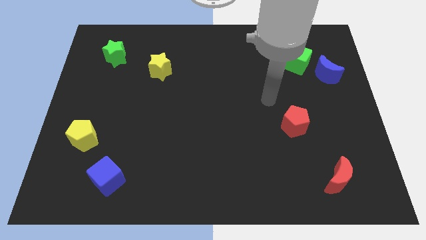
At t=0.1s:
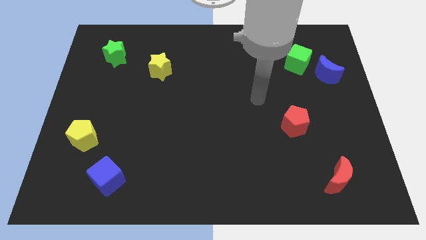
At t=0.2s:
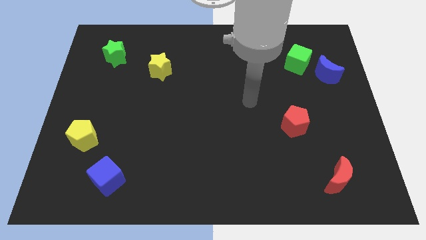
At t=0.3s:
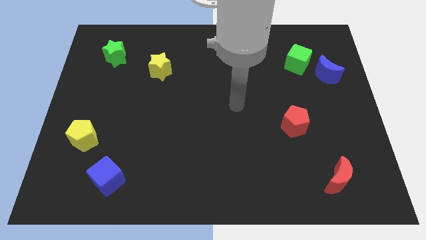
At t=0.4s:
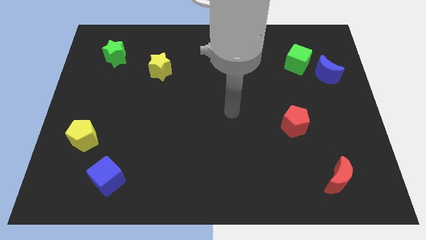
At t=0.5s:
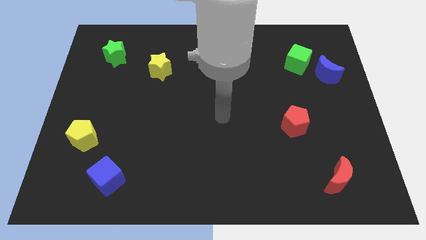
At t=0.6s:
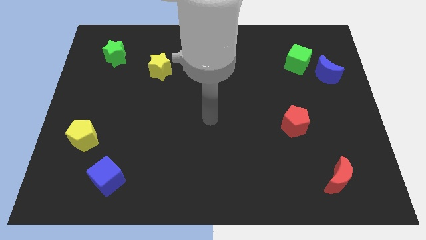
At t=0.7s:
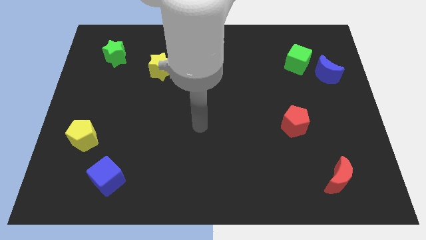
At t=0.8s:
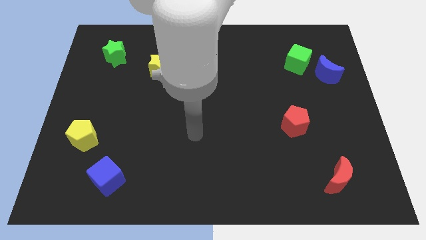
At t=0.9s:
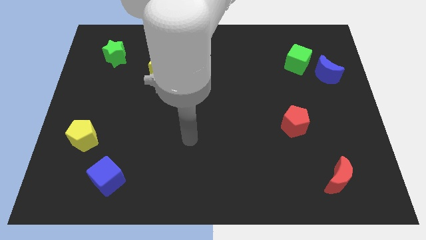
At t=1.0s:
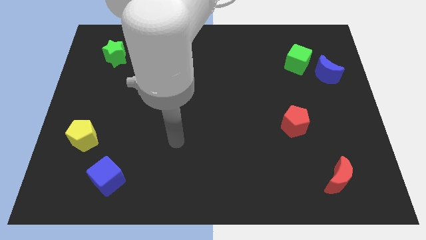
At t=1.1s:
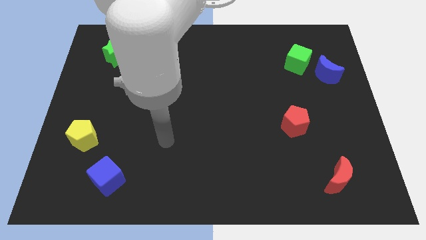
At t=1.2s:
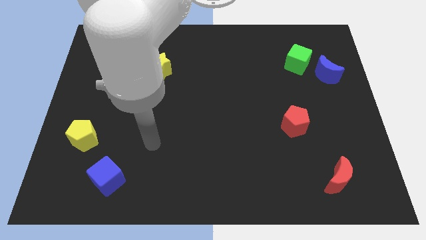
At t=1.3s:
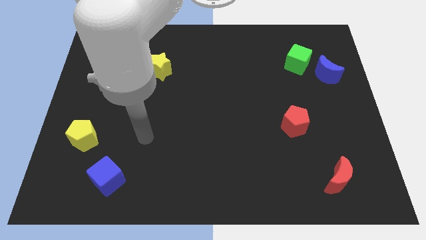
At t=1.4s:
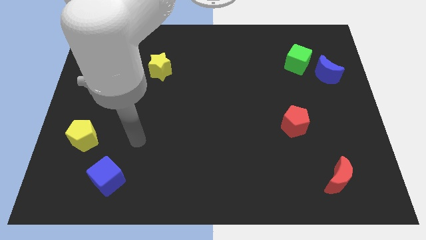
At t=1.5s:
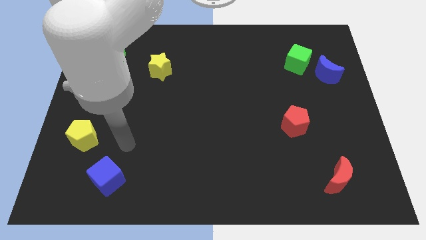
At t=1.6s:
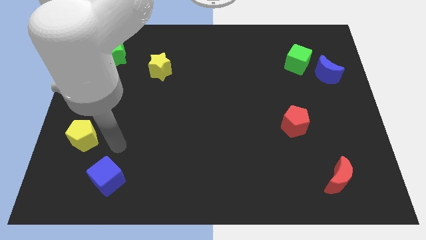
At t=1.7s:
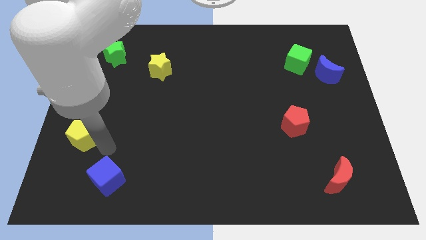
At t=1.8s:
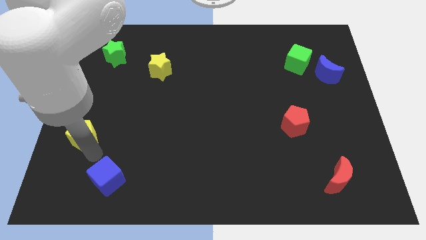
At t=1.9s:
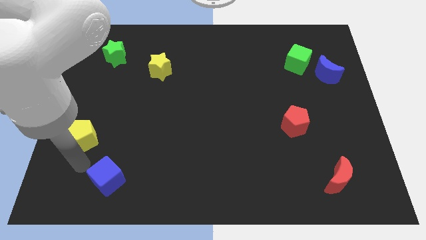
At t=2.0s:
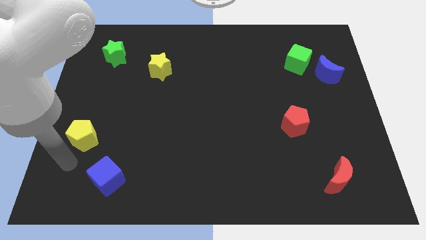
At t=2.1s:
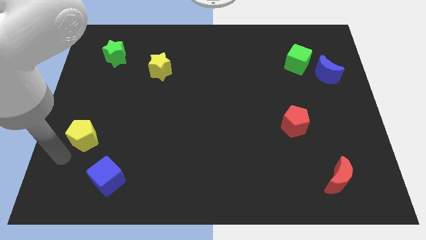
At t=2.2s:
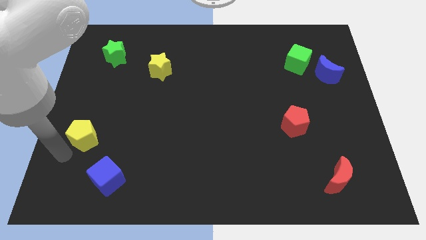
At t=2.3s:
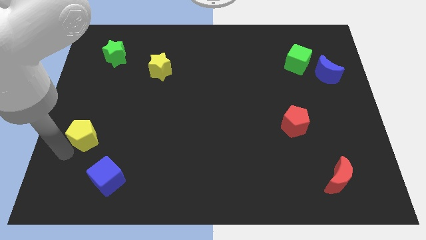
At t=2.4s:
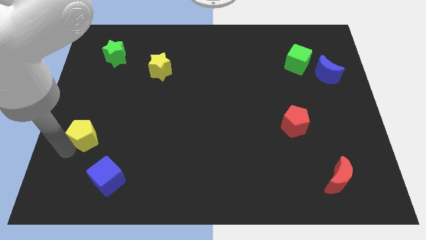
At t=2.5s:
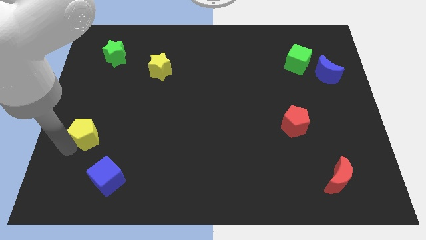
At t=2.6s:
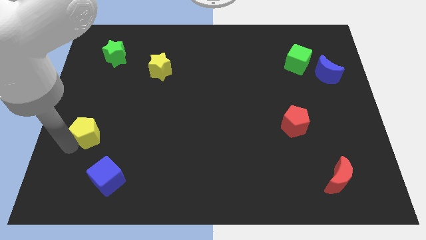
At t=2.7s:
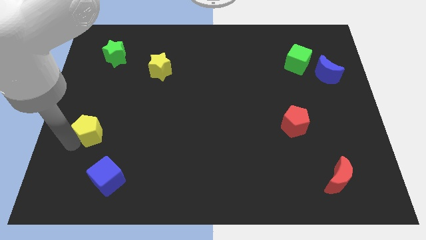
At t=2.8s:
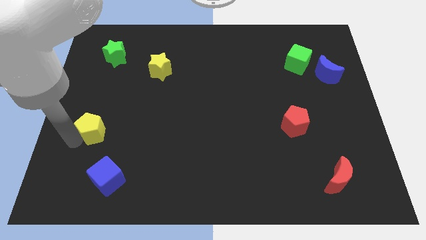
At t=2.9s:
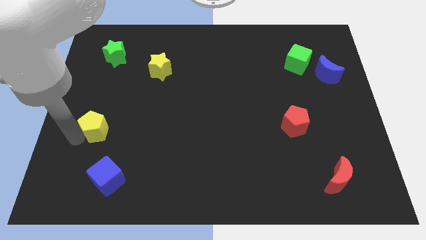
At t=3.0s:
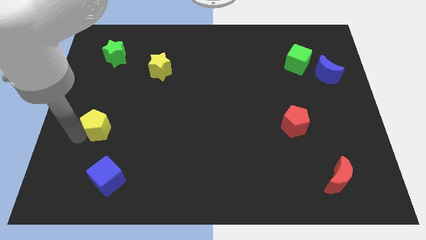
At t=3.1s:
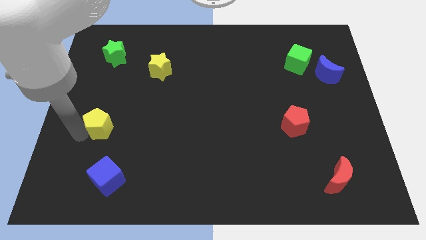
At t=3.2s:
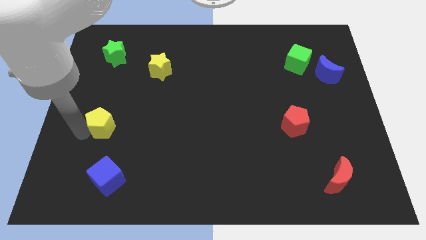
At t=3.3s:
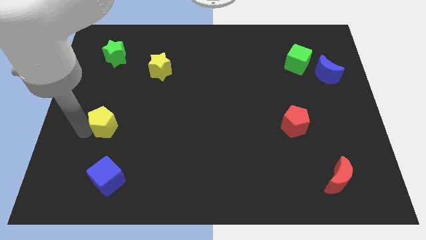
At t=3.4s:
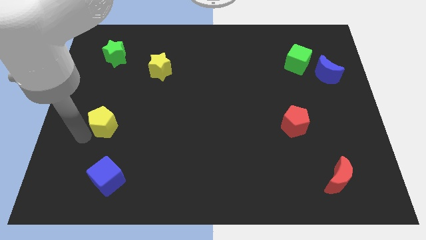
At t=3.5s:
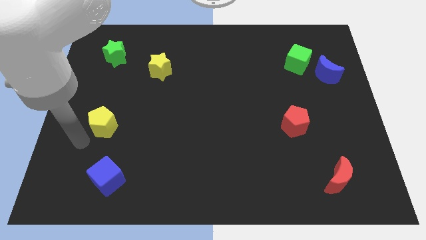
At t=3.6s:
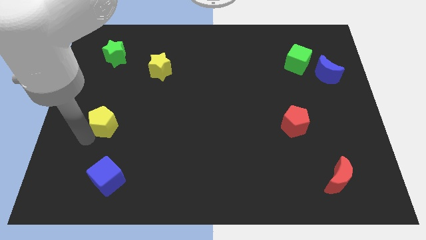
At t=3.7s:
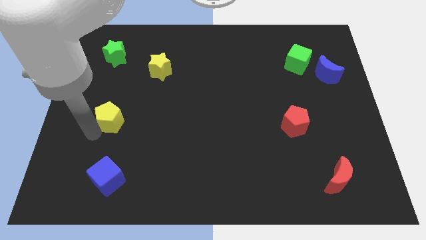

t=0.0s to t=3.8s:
slide the yellow pentagon upwards and right diagonally a little

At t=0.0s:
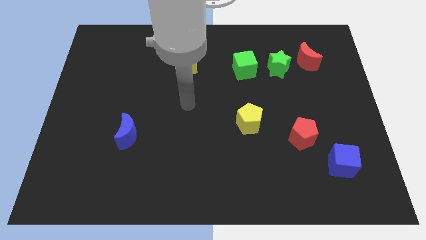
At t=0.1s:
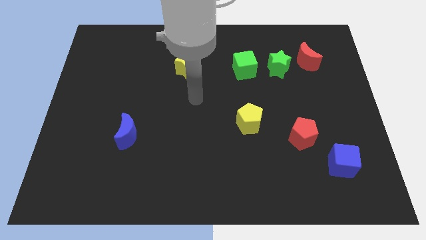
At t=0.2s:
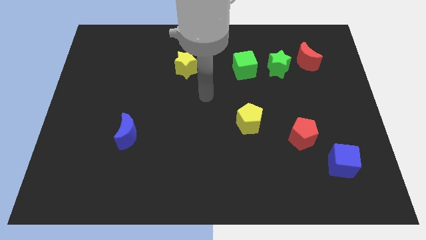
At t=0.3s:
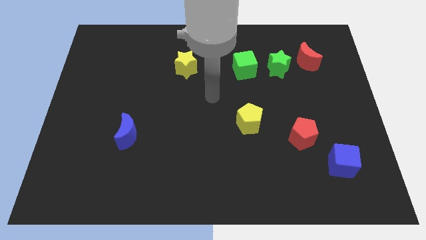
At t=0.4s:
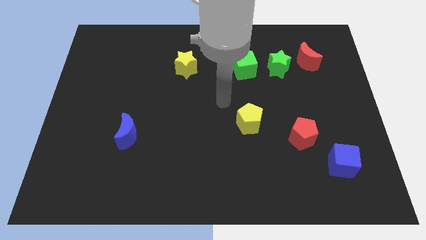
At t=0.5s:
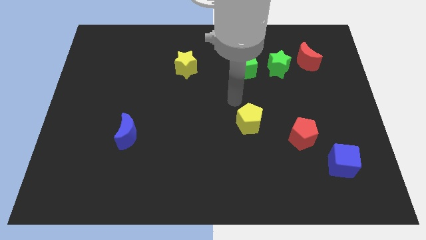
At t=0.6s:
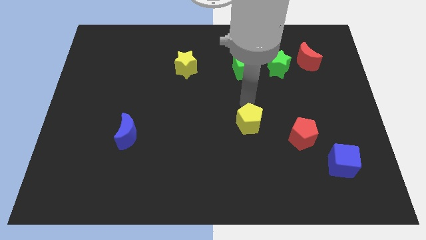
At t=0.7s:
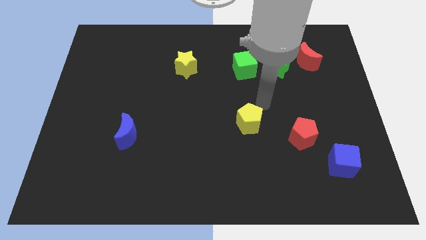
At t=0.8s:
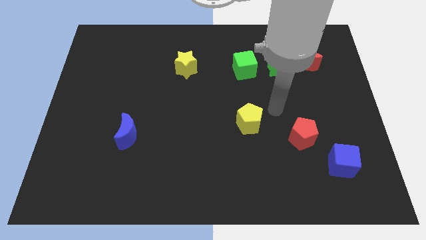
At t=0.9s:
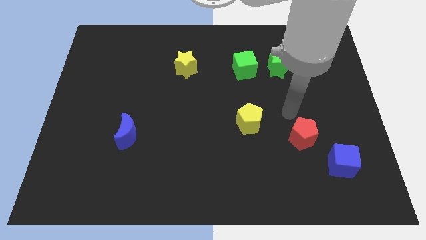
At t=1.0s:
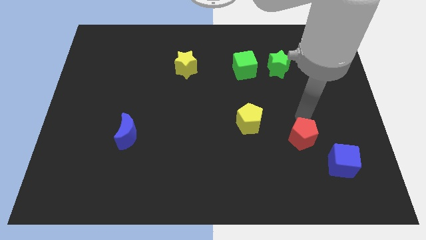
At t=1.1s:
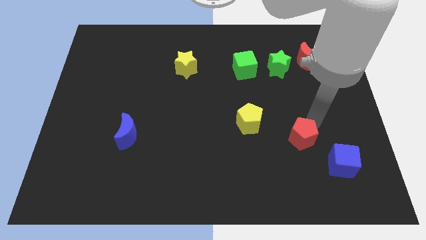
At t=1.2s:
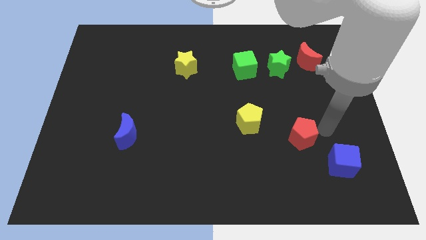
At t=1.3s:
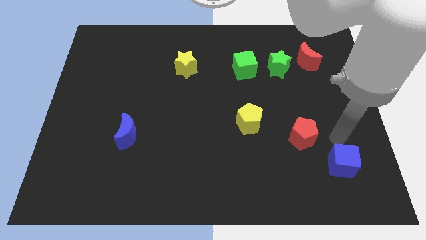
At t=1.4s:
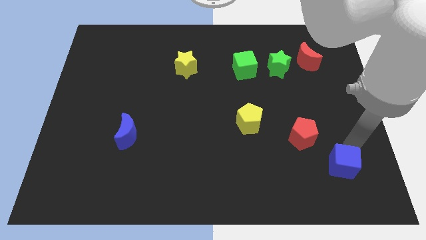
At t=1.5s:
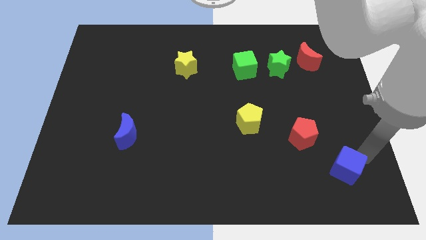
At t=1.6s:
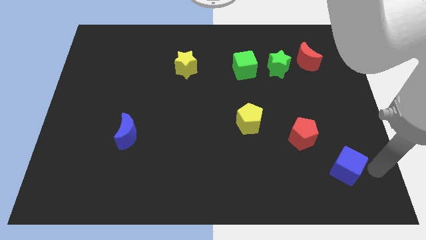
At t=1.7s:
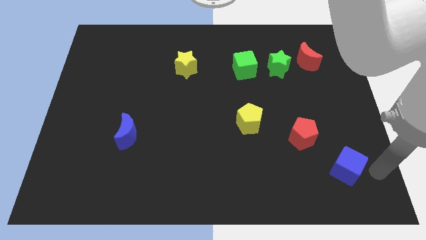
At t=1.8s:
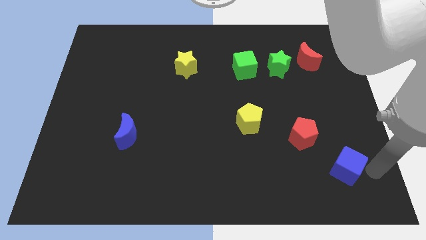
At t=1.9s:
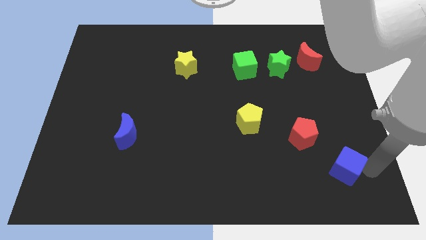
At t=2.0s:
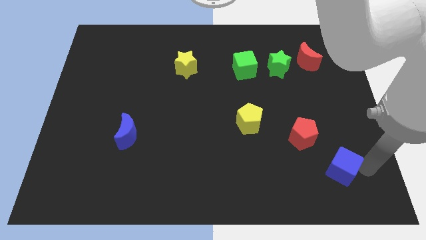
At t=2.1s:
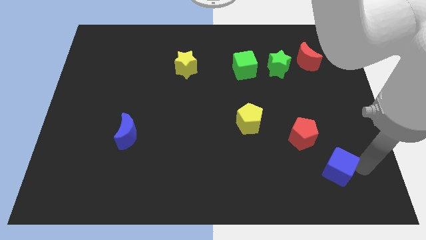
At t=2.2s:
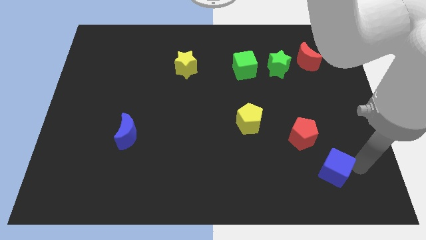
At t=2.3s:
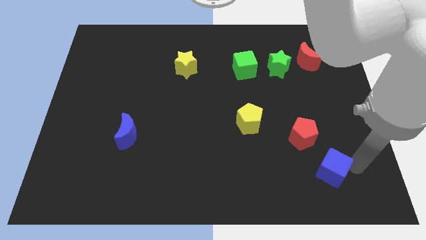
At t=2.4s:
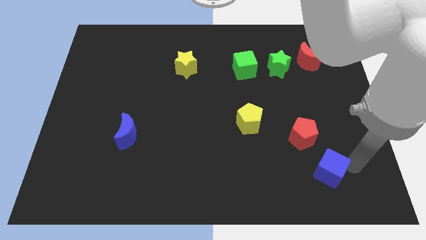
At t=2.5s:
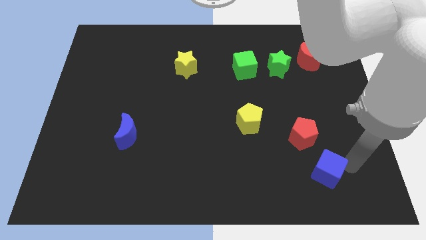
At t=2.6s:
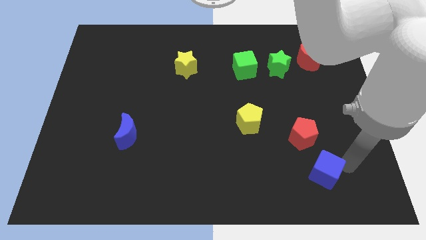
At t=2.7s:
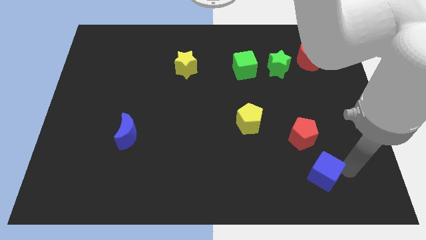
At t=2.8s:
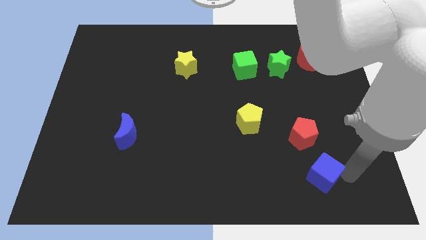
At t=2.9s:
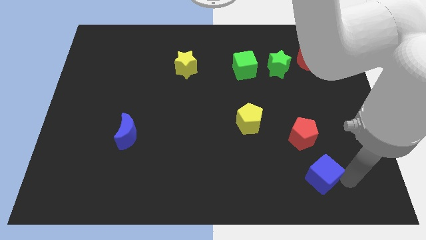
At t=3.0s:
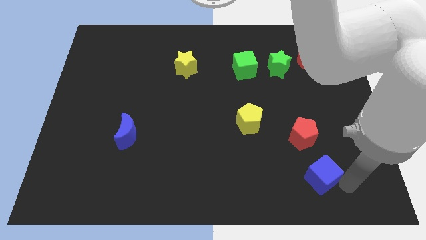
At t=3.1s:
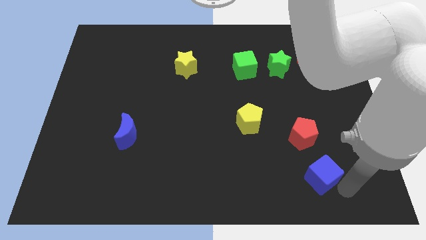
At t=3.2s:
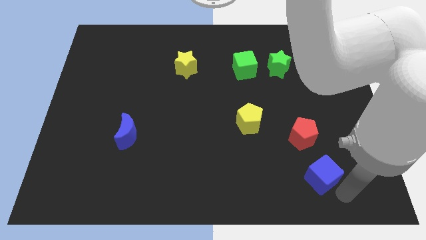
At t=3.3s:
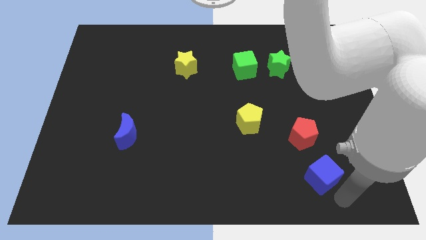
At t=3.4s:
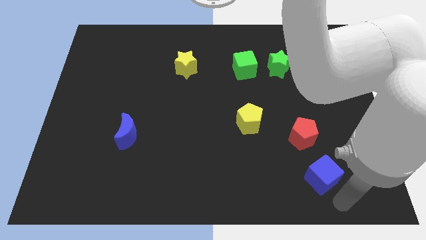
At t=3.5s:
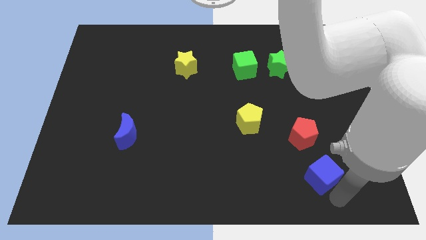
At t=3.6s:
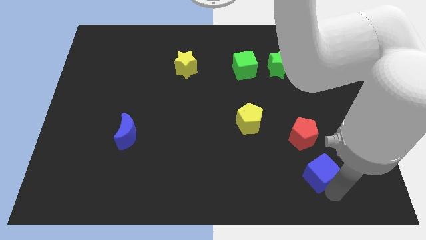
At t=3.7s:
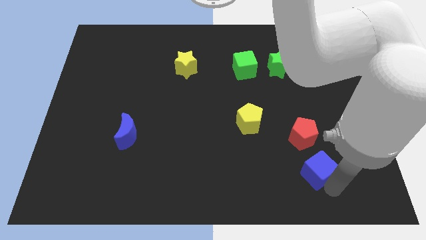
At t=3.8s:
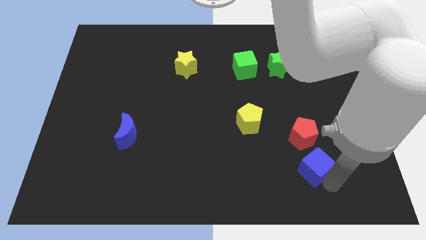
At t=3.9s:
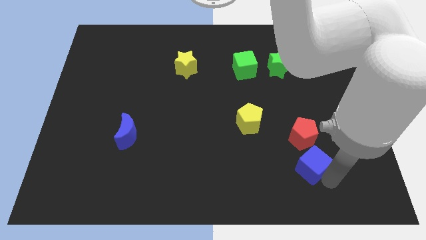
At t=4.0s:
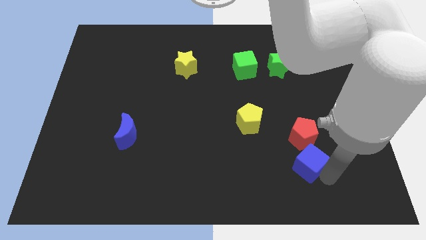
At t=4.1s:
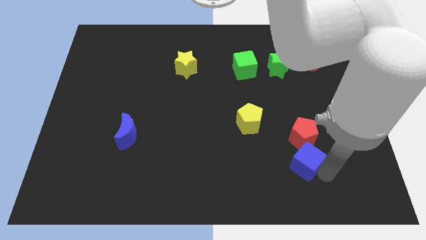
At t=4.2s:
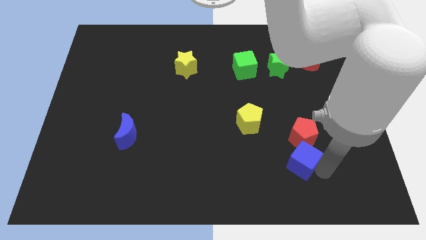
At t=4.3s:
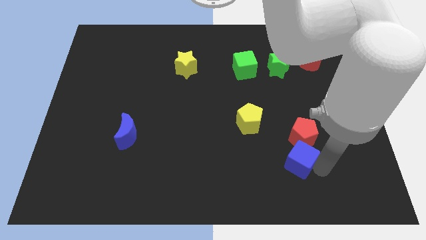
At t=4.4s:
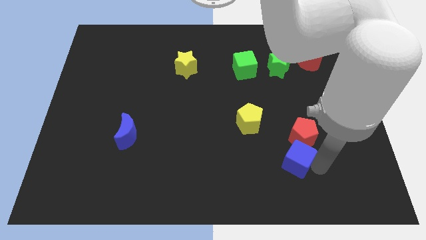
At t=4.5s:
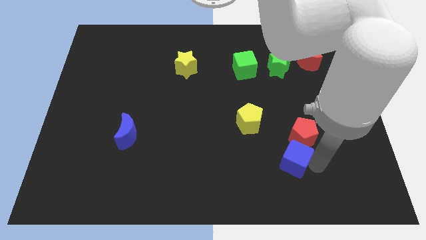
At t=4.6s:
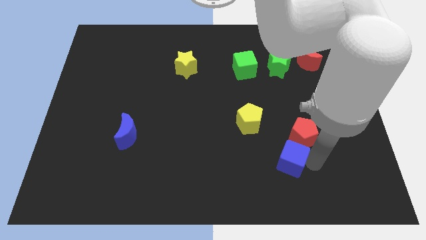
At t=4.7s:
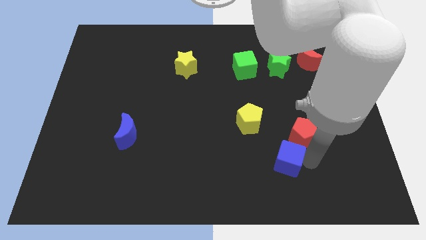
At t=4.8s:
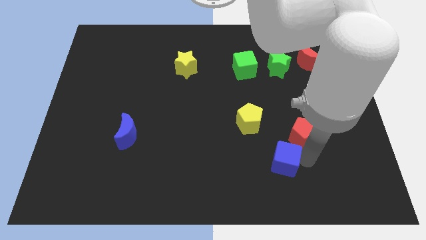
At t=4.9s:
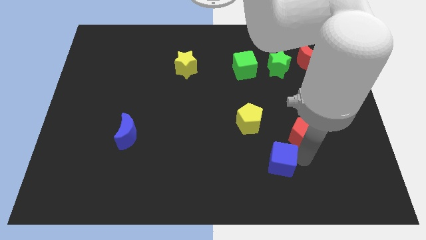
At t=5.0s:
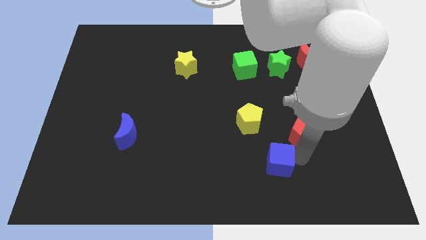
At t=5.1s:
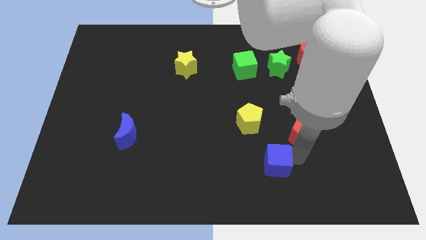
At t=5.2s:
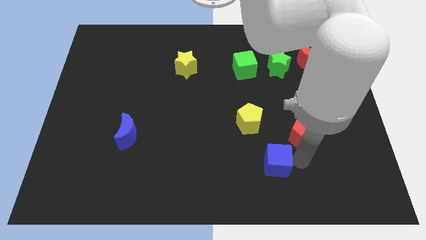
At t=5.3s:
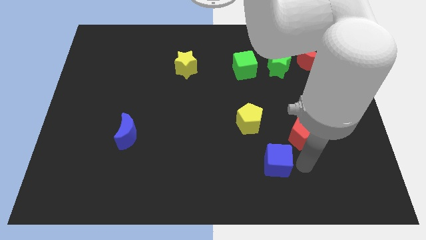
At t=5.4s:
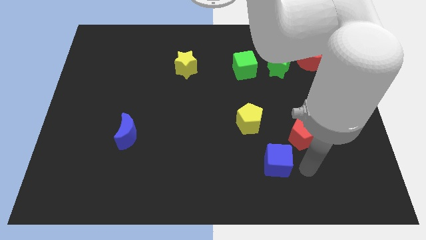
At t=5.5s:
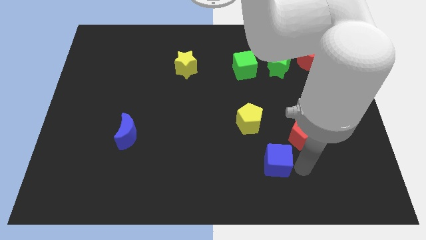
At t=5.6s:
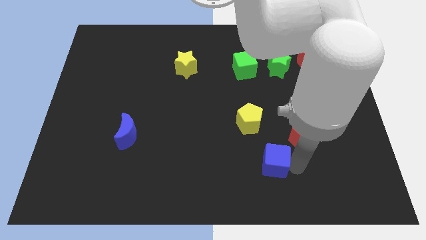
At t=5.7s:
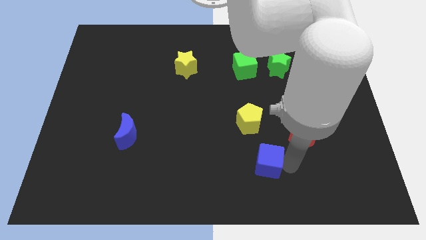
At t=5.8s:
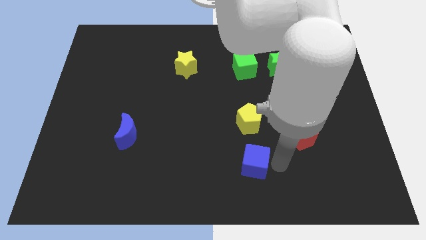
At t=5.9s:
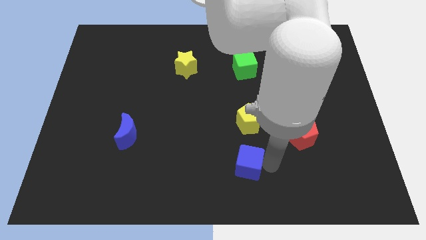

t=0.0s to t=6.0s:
slide the blue cube to the left
